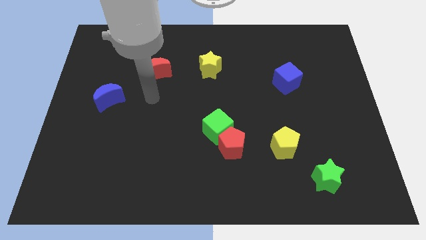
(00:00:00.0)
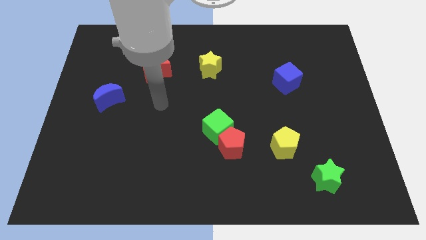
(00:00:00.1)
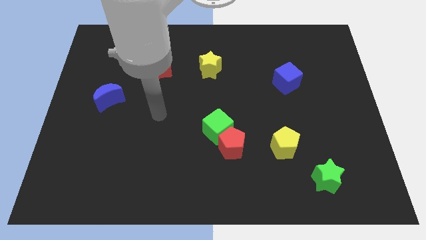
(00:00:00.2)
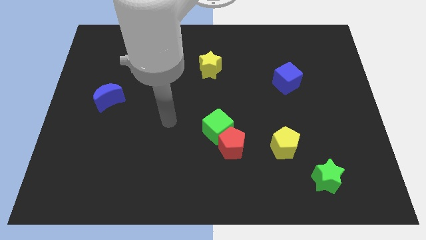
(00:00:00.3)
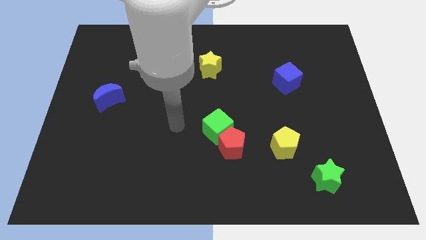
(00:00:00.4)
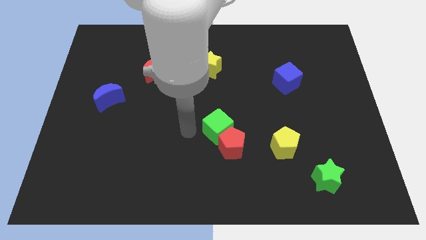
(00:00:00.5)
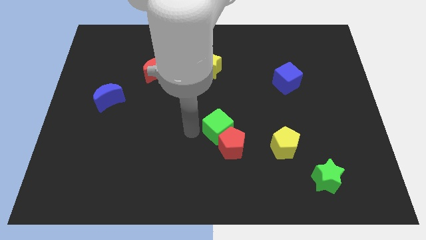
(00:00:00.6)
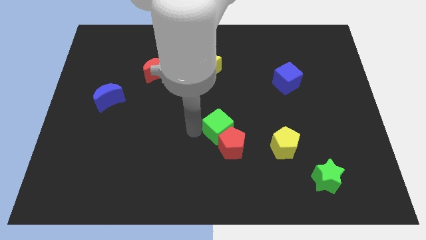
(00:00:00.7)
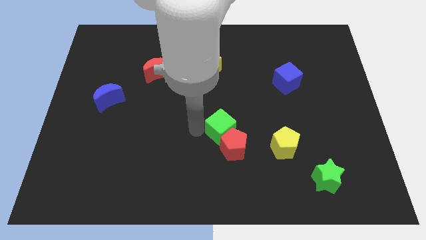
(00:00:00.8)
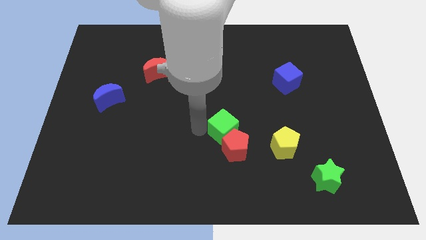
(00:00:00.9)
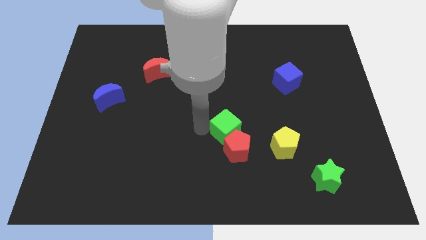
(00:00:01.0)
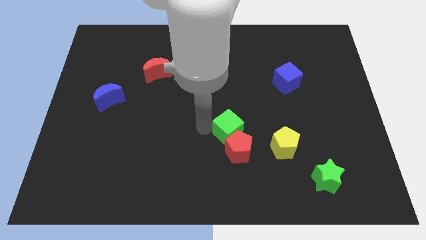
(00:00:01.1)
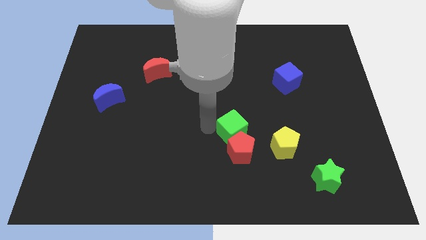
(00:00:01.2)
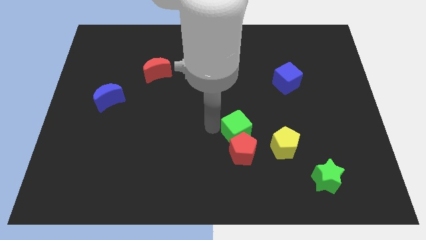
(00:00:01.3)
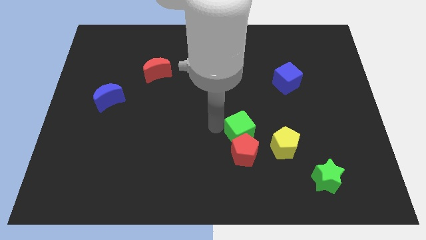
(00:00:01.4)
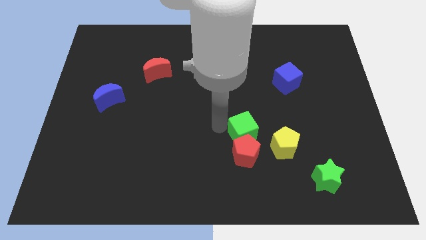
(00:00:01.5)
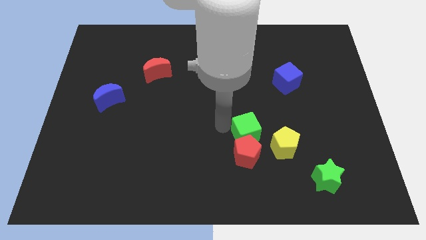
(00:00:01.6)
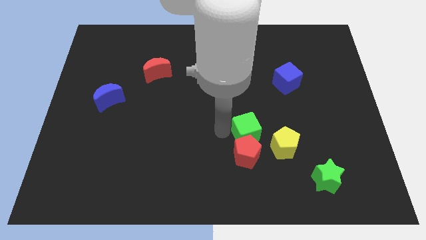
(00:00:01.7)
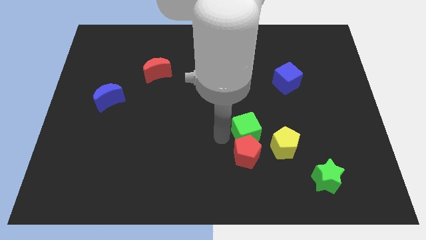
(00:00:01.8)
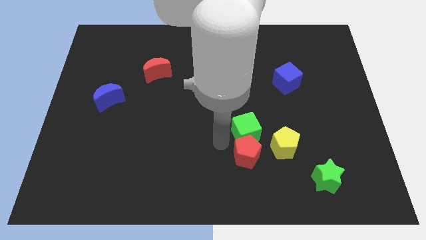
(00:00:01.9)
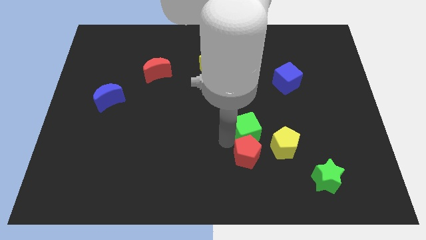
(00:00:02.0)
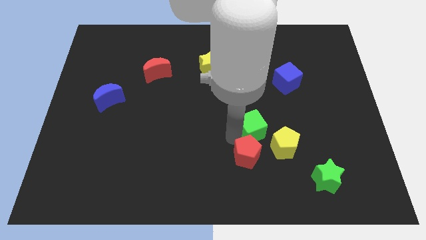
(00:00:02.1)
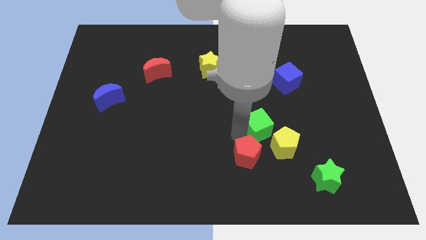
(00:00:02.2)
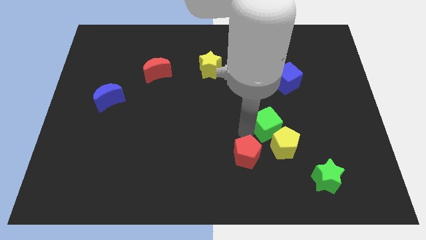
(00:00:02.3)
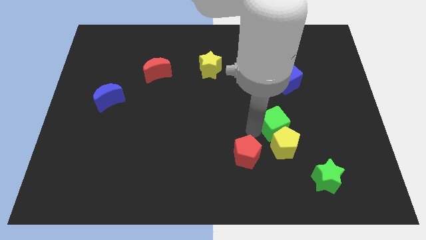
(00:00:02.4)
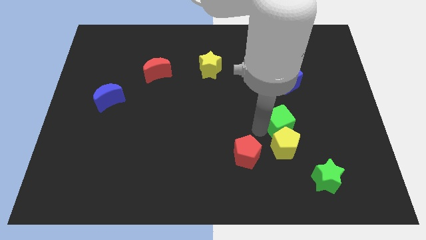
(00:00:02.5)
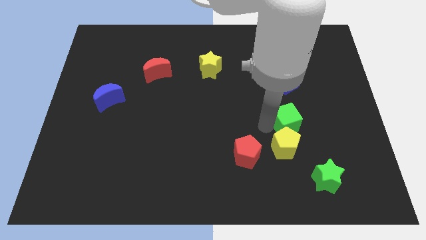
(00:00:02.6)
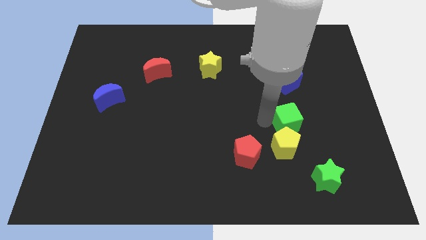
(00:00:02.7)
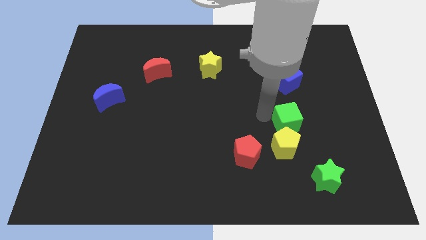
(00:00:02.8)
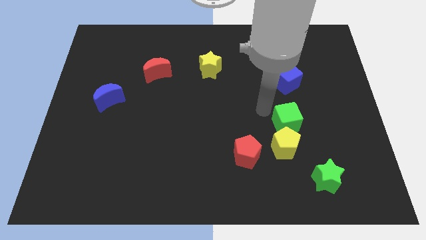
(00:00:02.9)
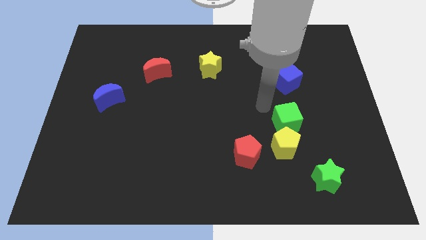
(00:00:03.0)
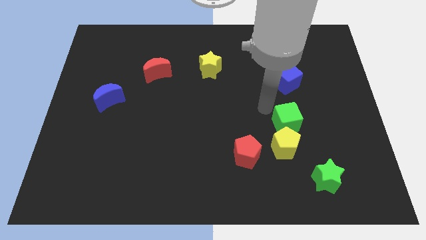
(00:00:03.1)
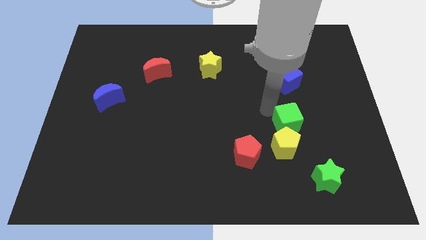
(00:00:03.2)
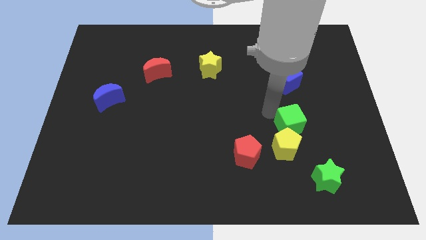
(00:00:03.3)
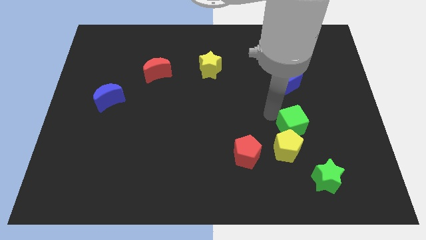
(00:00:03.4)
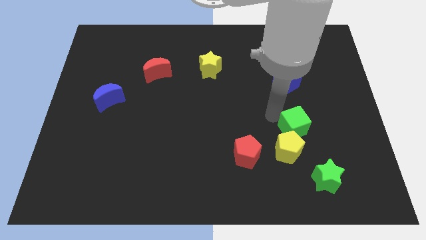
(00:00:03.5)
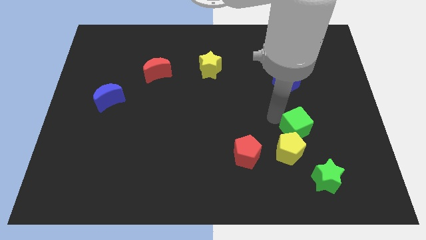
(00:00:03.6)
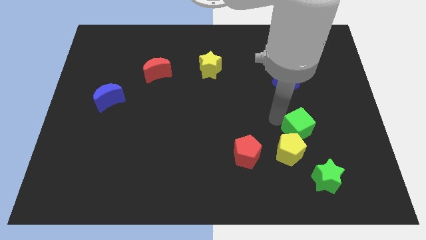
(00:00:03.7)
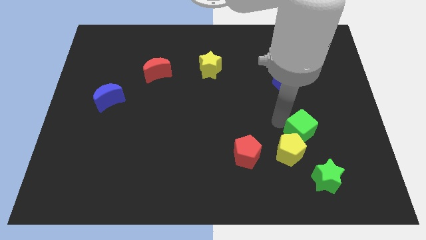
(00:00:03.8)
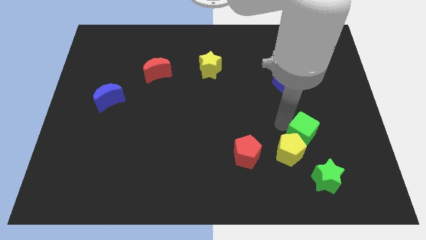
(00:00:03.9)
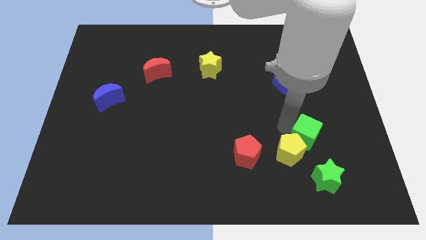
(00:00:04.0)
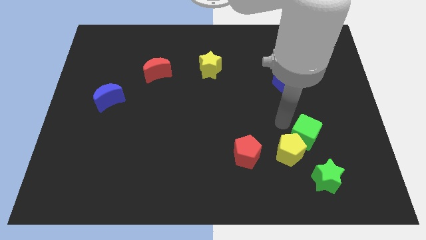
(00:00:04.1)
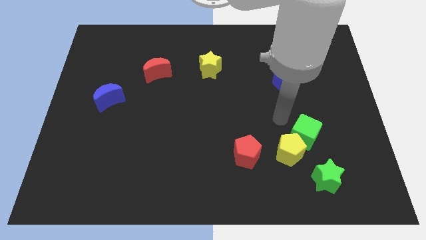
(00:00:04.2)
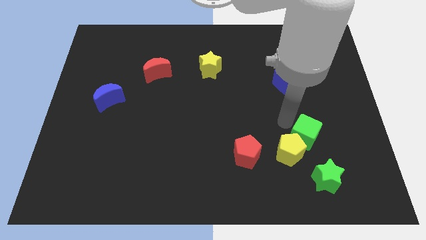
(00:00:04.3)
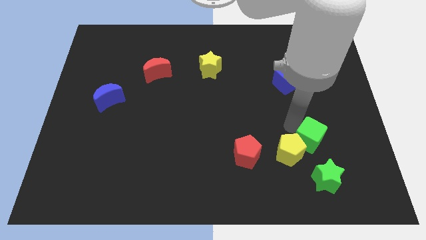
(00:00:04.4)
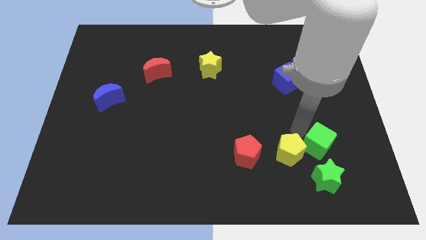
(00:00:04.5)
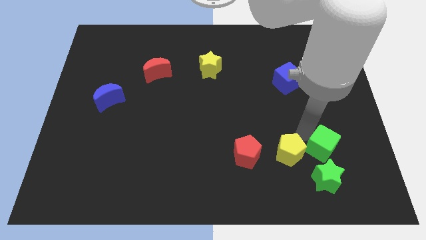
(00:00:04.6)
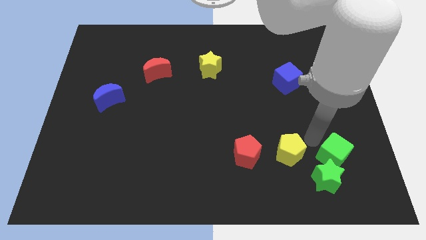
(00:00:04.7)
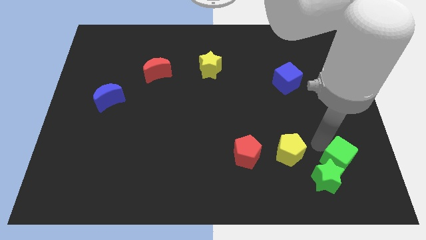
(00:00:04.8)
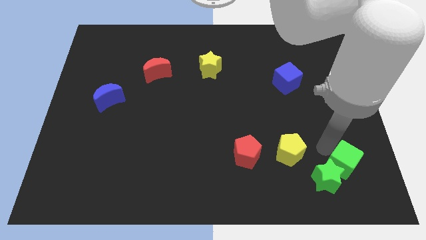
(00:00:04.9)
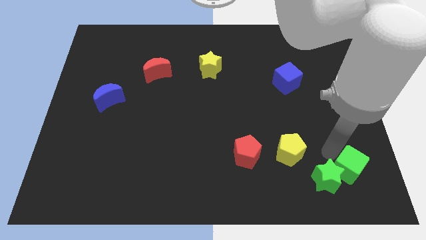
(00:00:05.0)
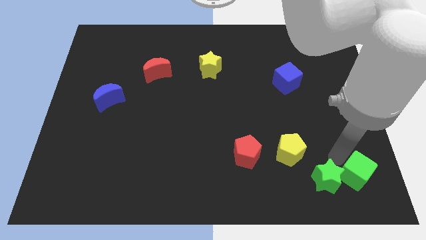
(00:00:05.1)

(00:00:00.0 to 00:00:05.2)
push the green cube to the lower right corner
